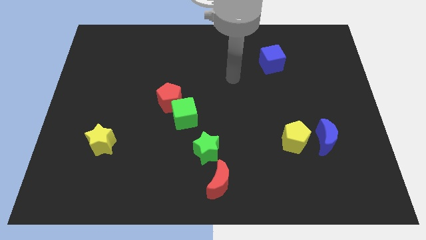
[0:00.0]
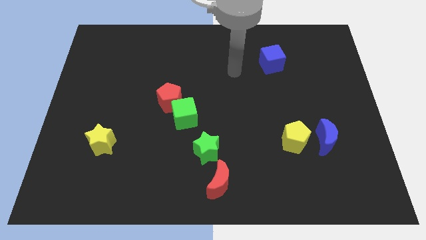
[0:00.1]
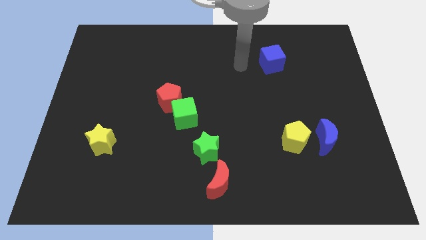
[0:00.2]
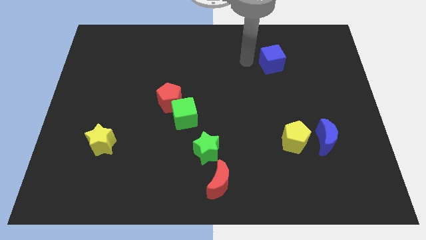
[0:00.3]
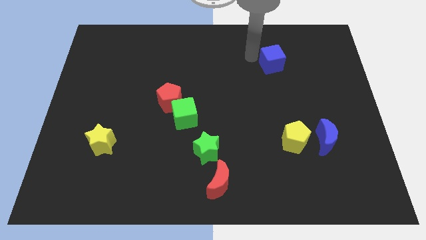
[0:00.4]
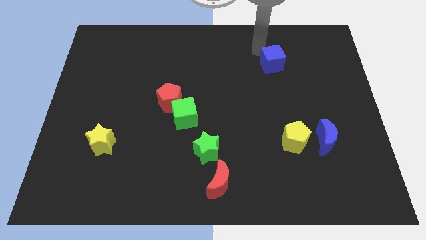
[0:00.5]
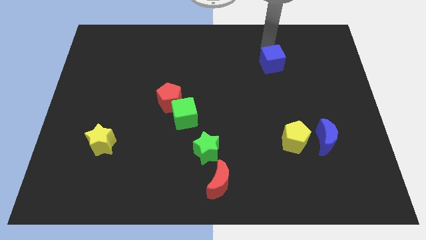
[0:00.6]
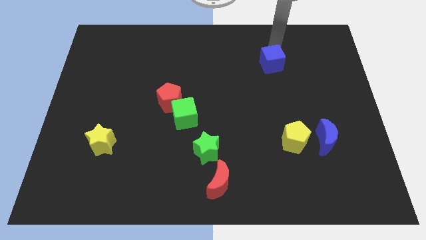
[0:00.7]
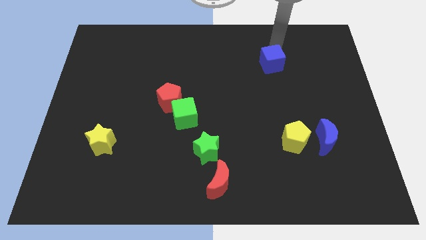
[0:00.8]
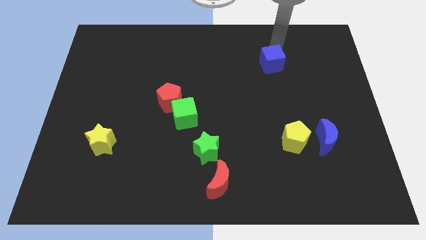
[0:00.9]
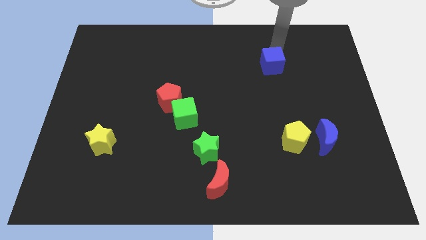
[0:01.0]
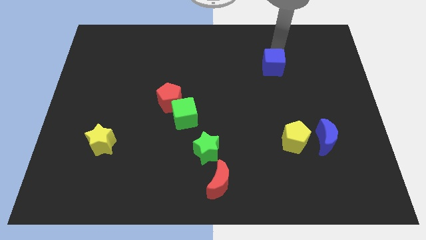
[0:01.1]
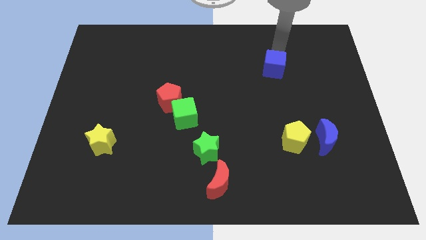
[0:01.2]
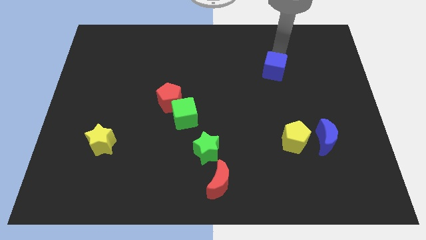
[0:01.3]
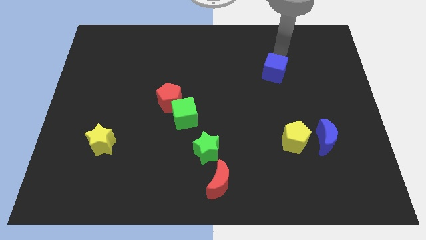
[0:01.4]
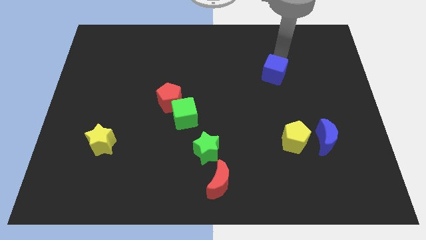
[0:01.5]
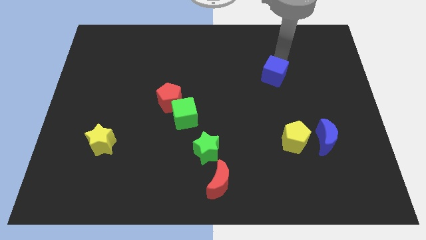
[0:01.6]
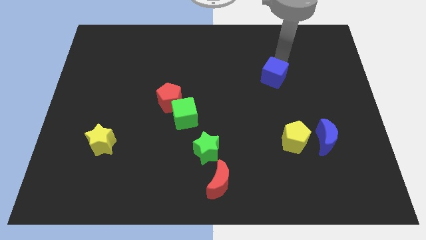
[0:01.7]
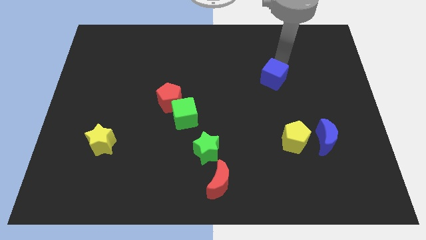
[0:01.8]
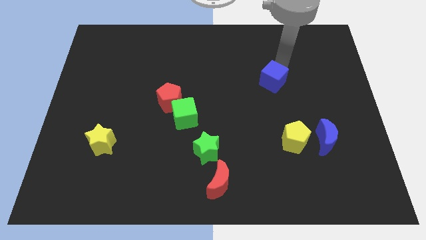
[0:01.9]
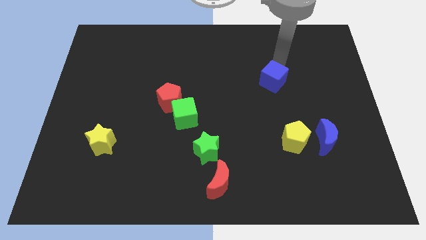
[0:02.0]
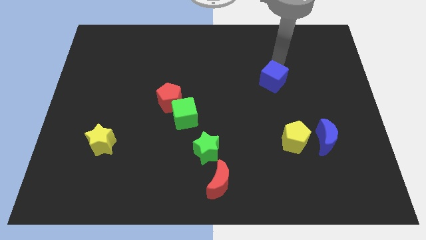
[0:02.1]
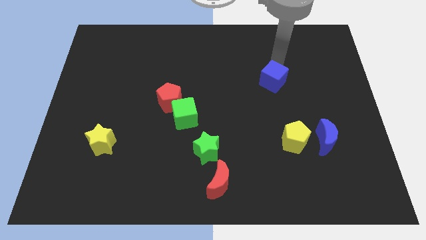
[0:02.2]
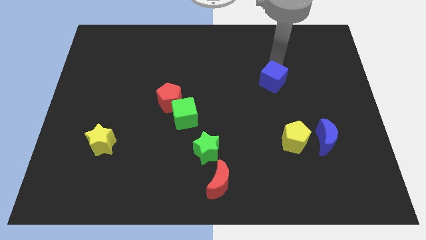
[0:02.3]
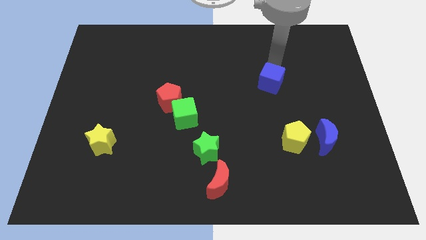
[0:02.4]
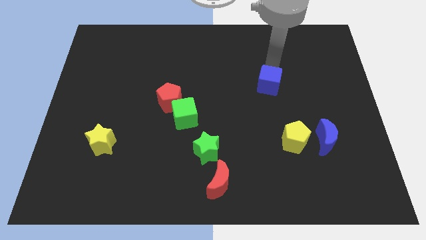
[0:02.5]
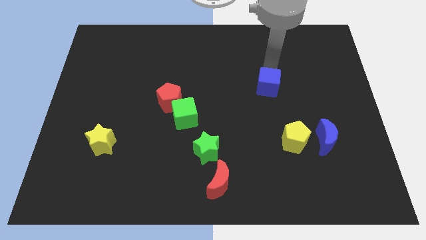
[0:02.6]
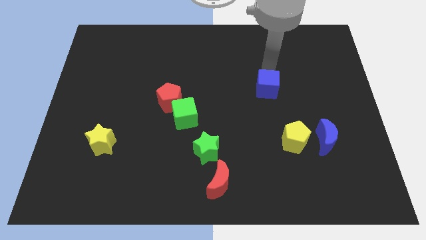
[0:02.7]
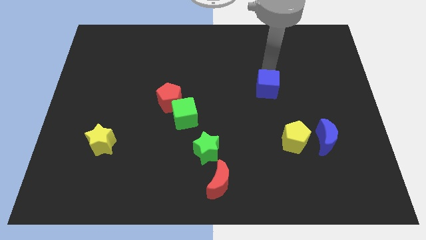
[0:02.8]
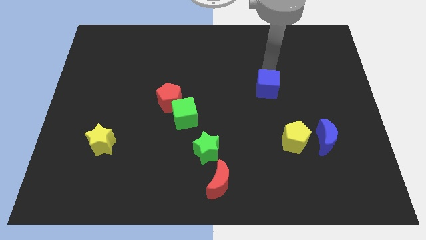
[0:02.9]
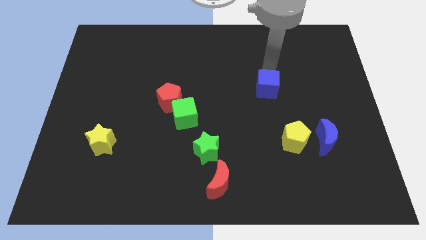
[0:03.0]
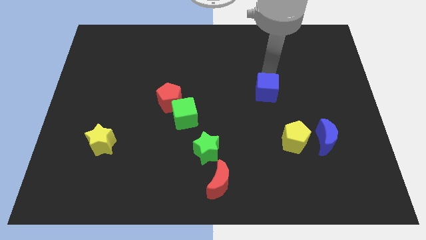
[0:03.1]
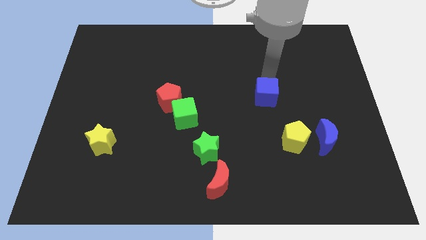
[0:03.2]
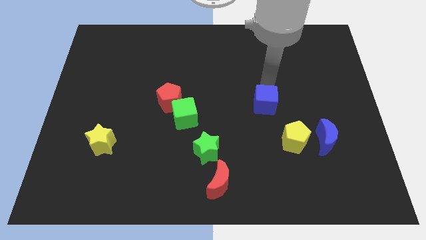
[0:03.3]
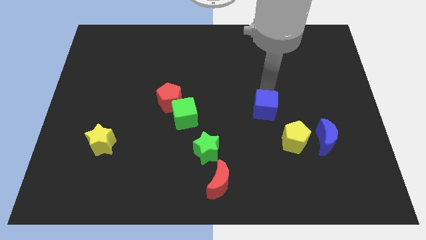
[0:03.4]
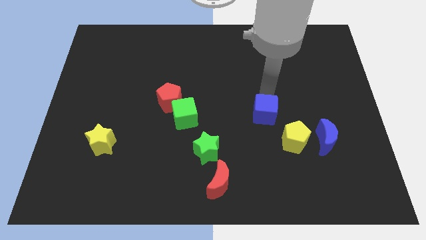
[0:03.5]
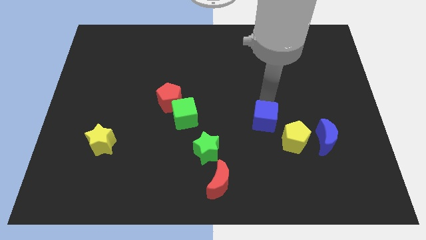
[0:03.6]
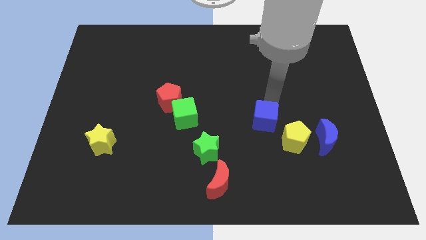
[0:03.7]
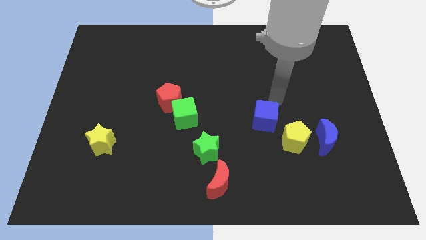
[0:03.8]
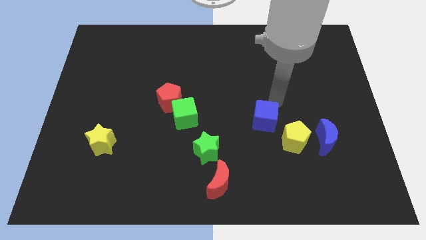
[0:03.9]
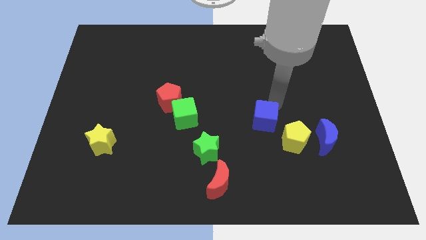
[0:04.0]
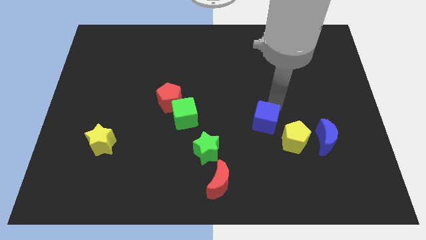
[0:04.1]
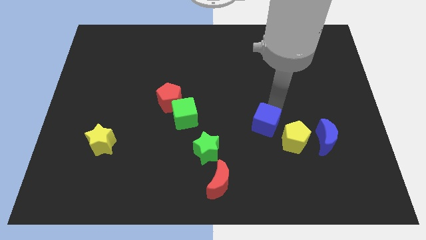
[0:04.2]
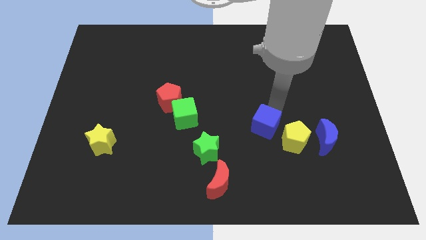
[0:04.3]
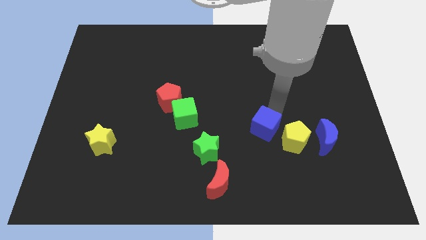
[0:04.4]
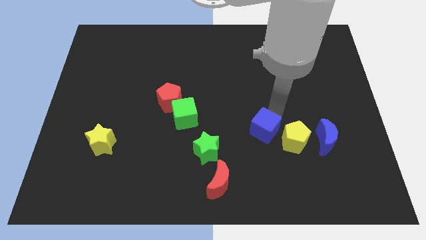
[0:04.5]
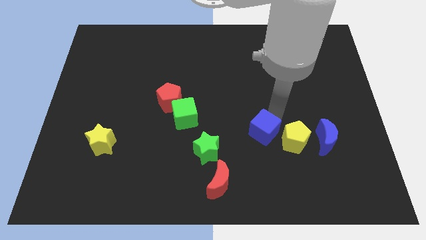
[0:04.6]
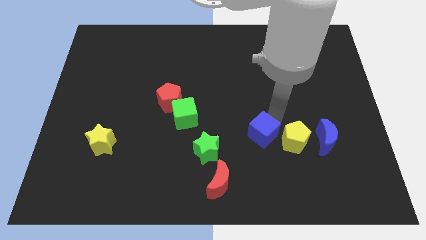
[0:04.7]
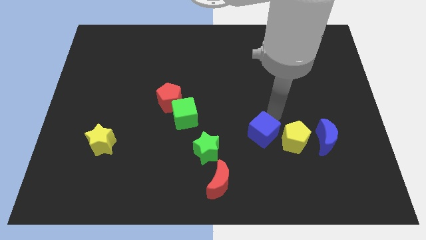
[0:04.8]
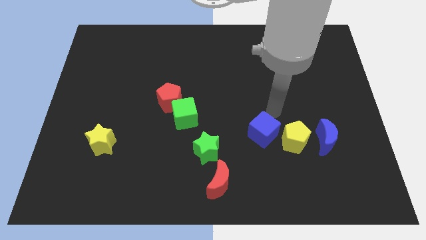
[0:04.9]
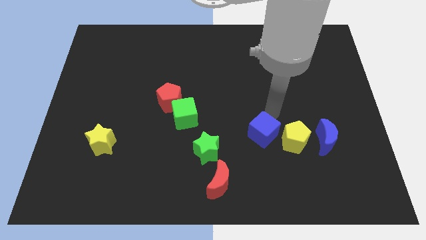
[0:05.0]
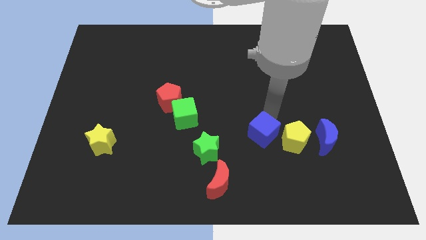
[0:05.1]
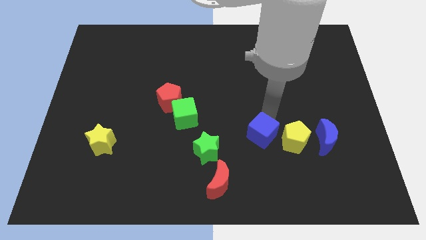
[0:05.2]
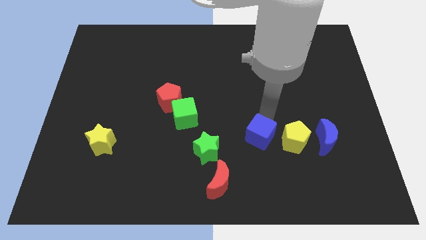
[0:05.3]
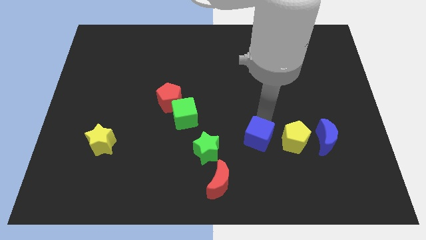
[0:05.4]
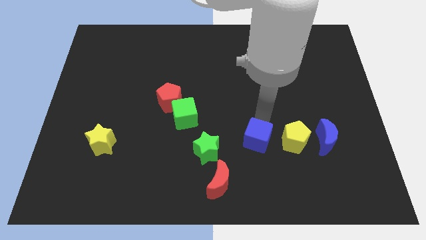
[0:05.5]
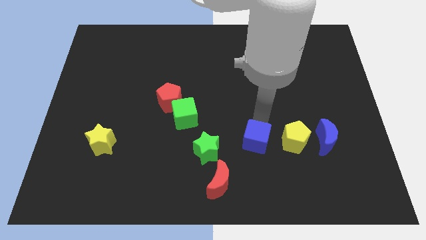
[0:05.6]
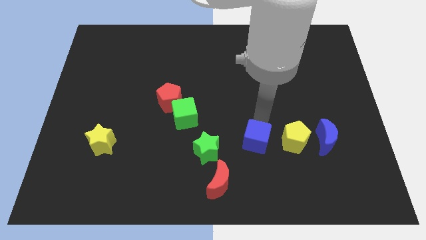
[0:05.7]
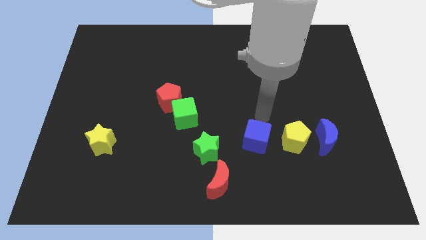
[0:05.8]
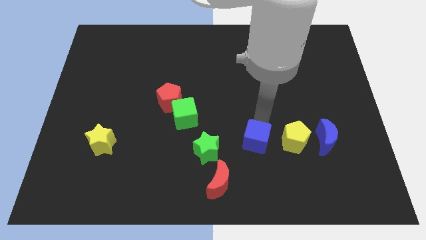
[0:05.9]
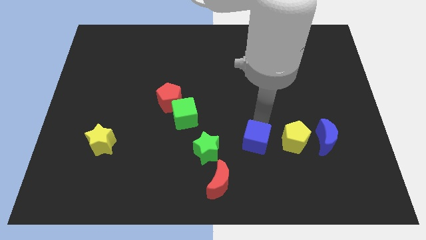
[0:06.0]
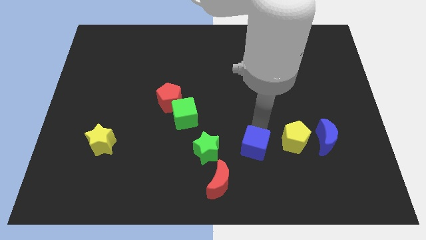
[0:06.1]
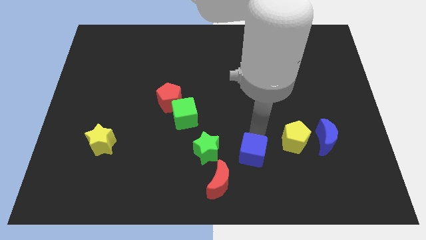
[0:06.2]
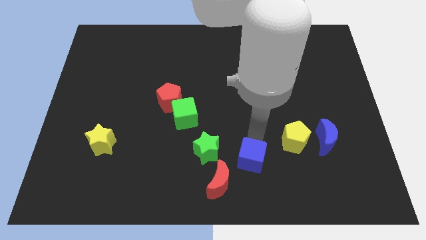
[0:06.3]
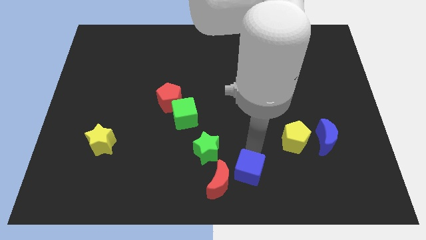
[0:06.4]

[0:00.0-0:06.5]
move the blue cube to the bottom
